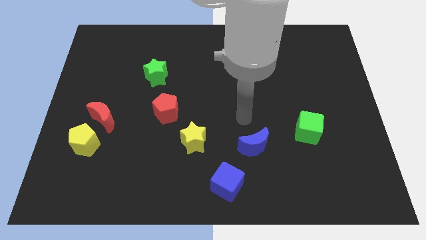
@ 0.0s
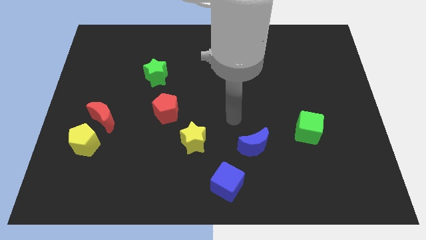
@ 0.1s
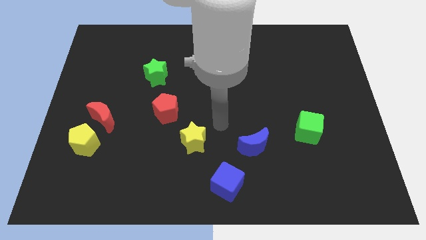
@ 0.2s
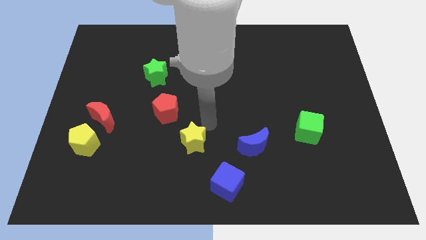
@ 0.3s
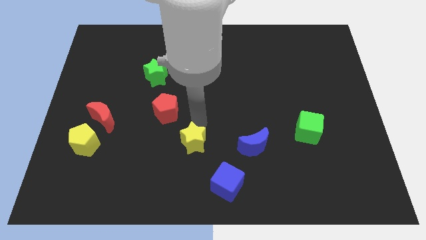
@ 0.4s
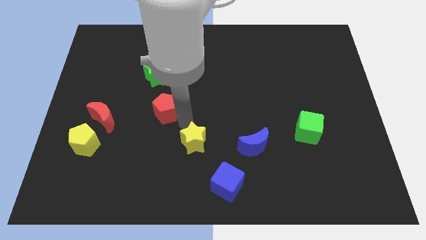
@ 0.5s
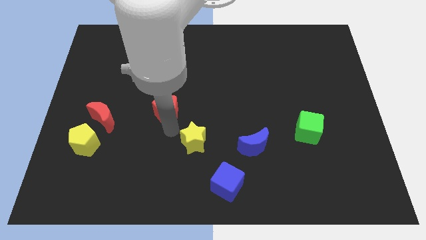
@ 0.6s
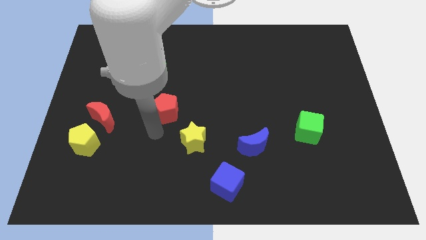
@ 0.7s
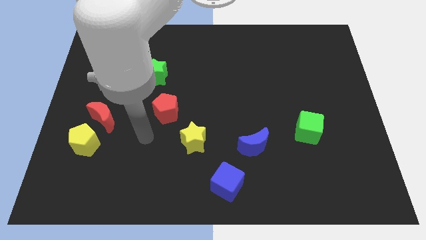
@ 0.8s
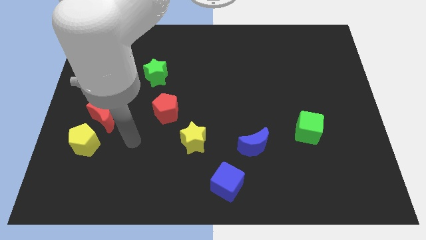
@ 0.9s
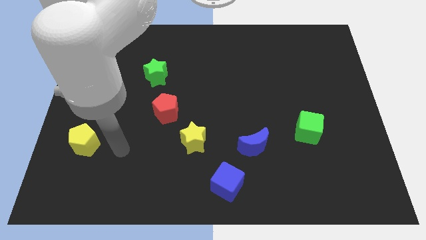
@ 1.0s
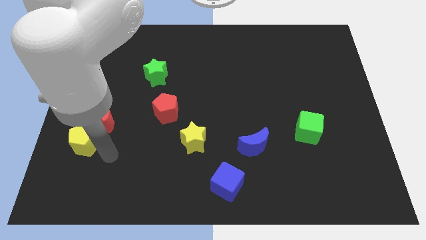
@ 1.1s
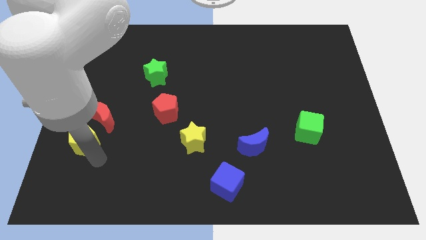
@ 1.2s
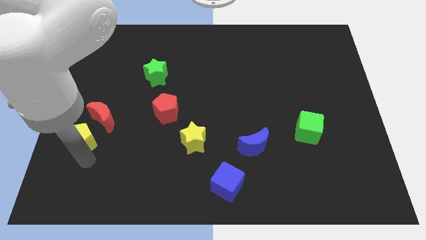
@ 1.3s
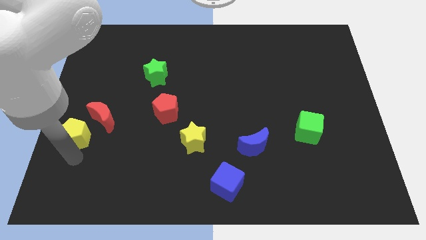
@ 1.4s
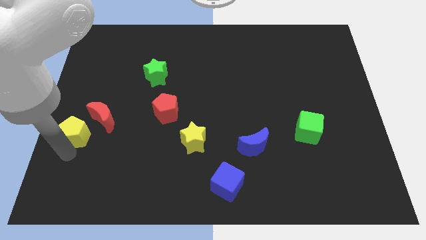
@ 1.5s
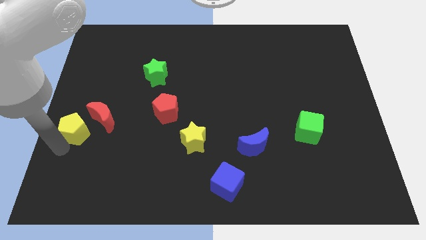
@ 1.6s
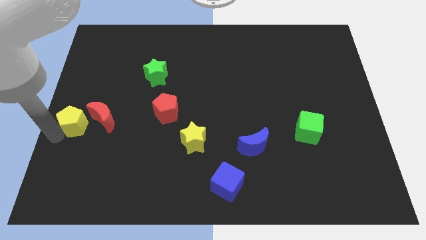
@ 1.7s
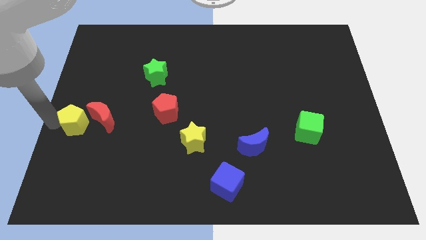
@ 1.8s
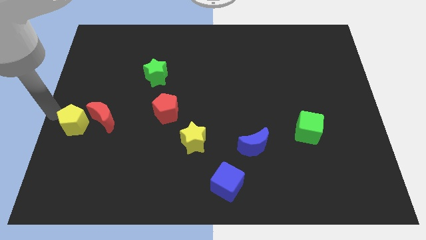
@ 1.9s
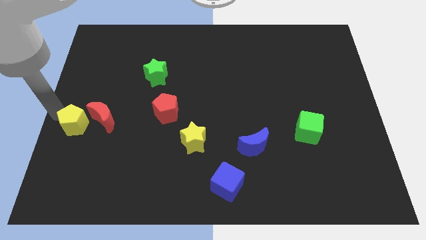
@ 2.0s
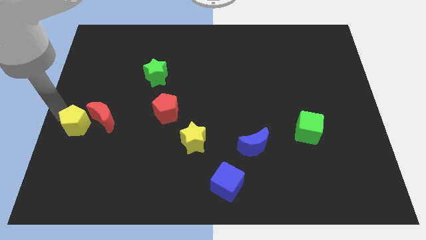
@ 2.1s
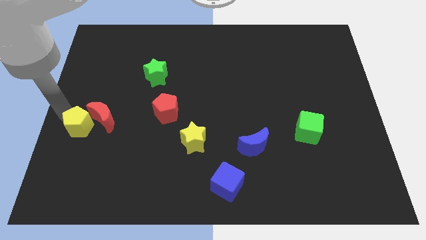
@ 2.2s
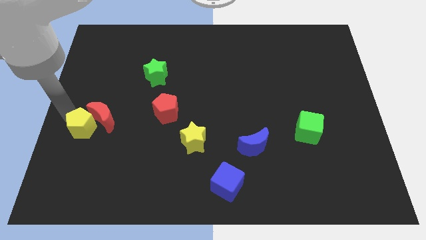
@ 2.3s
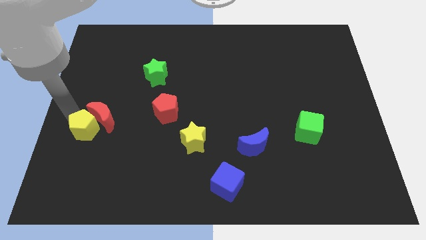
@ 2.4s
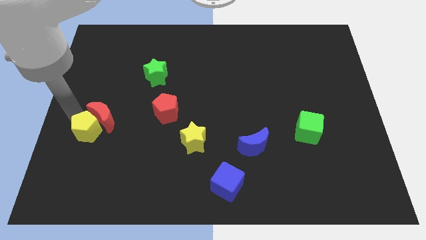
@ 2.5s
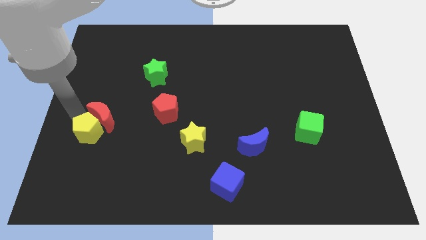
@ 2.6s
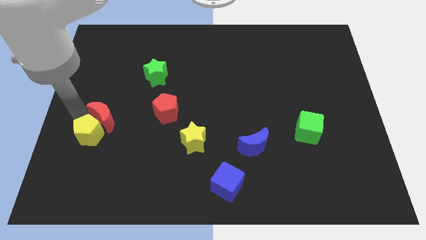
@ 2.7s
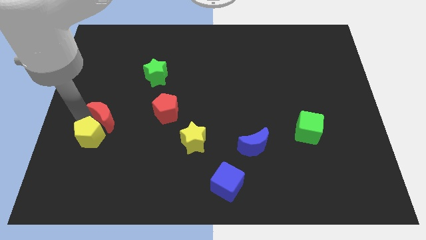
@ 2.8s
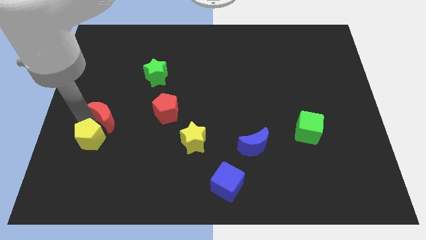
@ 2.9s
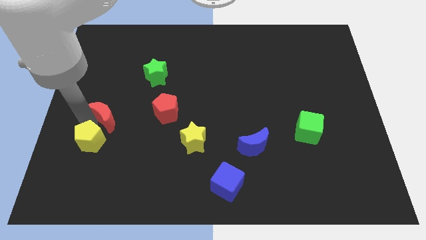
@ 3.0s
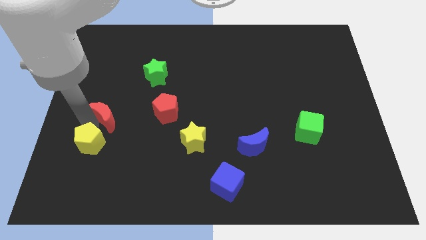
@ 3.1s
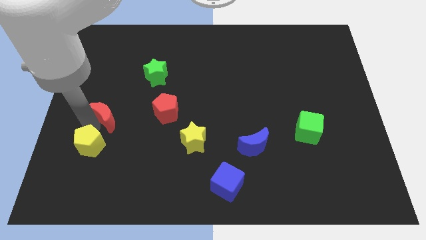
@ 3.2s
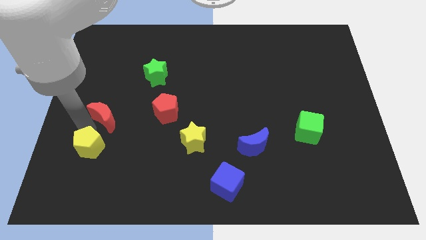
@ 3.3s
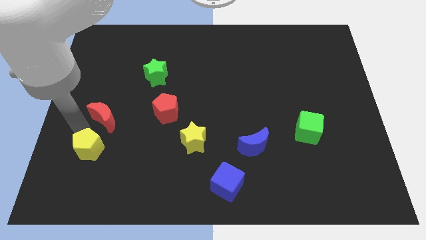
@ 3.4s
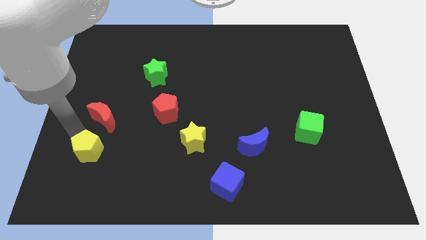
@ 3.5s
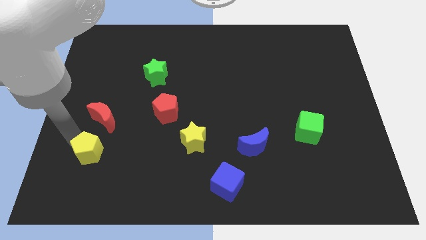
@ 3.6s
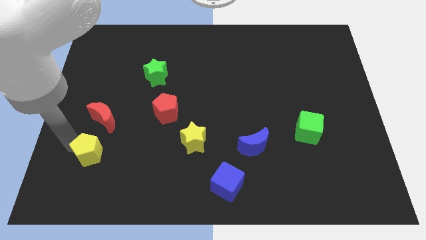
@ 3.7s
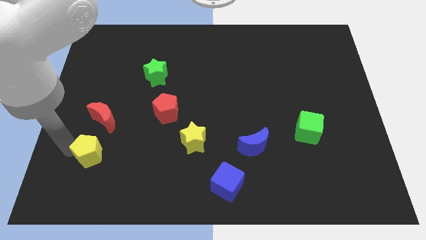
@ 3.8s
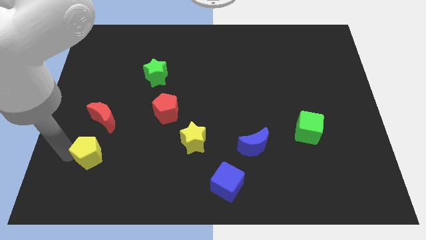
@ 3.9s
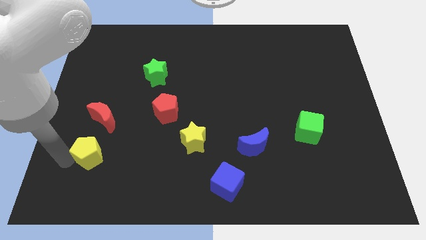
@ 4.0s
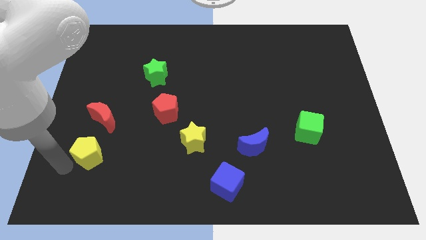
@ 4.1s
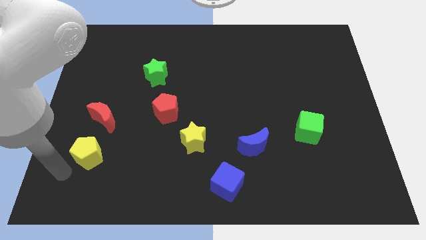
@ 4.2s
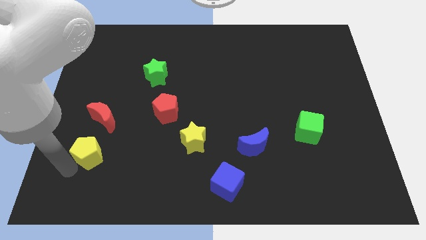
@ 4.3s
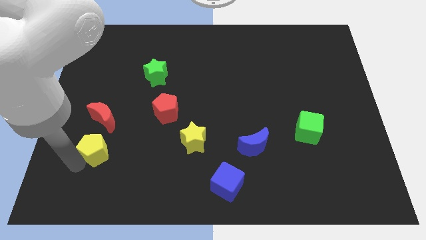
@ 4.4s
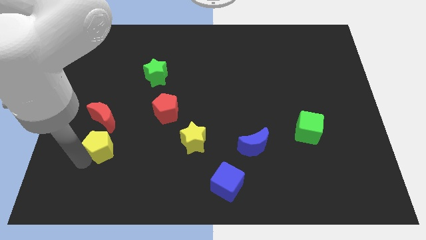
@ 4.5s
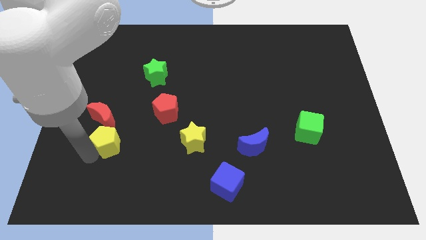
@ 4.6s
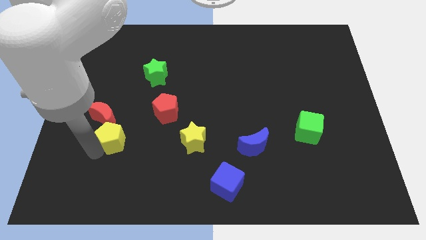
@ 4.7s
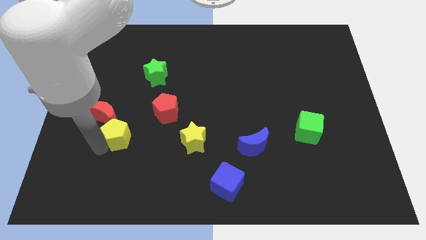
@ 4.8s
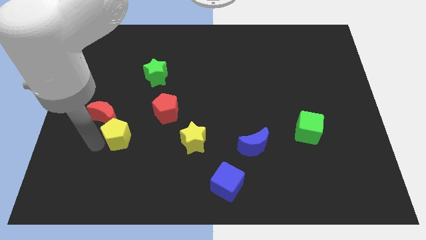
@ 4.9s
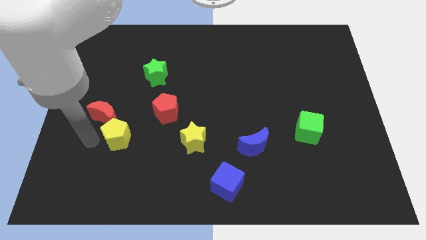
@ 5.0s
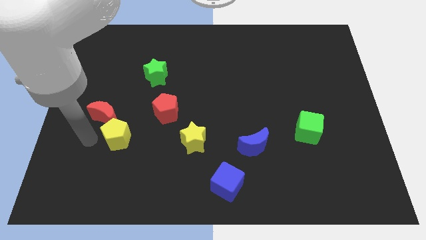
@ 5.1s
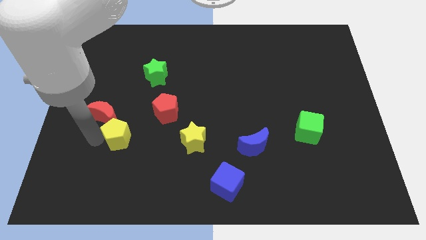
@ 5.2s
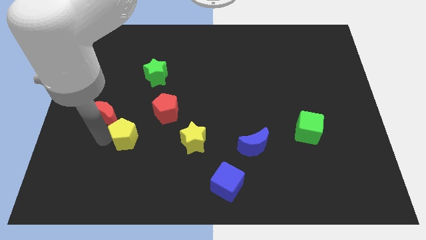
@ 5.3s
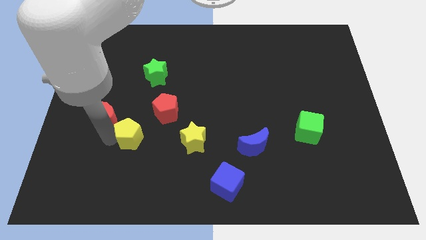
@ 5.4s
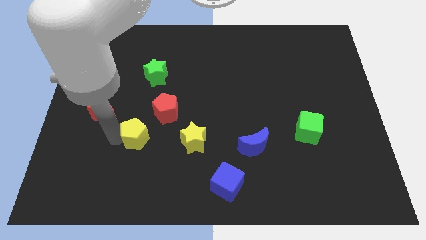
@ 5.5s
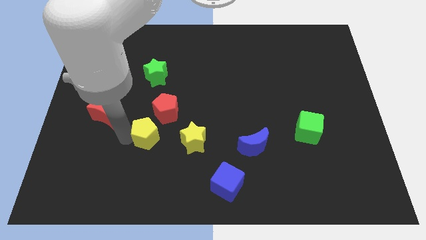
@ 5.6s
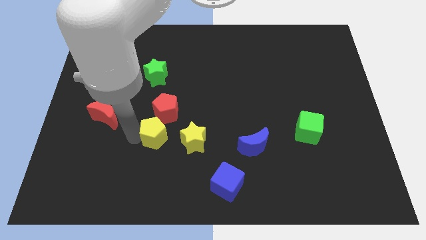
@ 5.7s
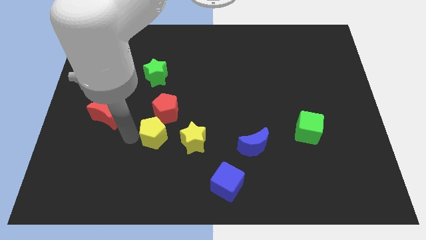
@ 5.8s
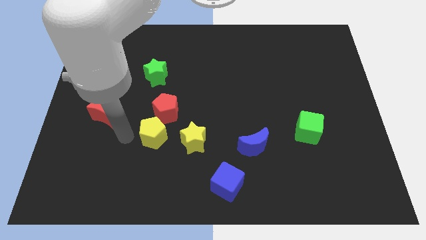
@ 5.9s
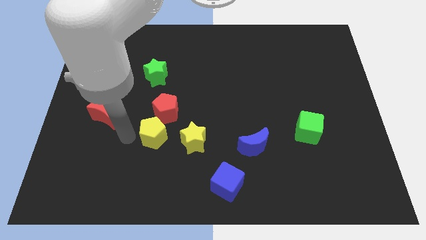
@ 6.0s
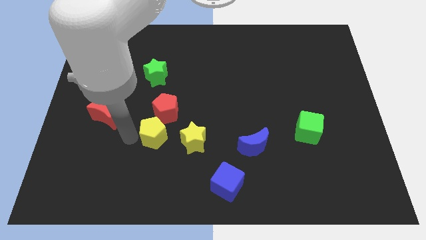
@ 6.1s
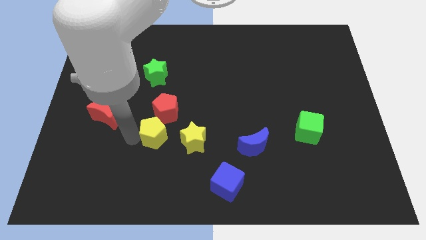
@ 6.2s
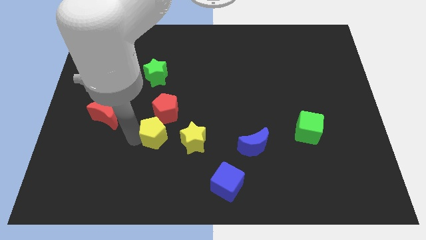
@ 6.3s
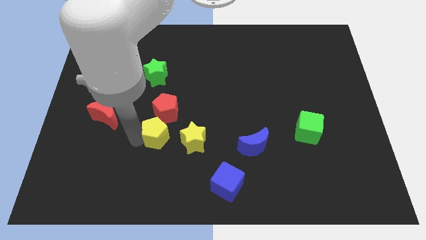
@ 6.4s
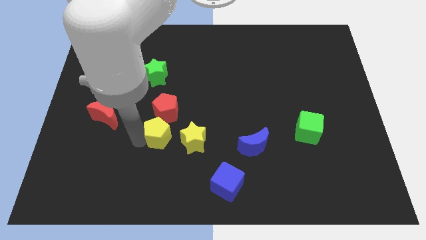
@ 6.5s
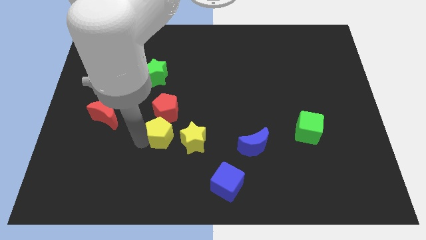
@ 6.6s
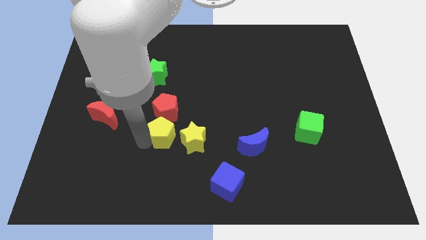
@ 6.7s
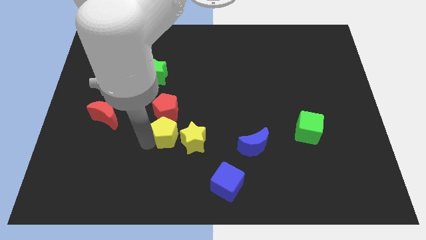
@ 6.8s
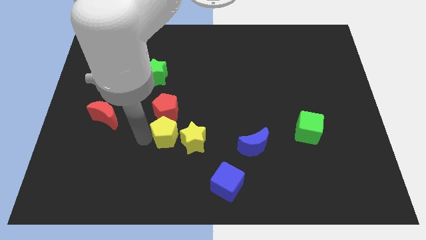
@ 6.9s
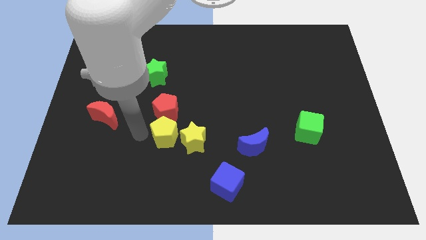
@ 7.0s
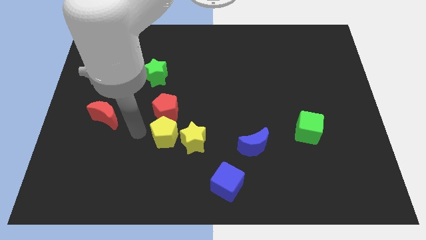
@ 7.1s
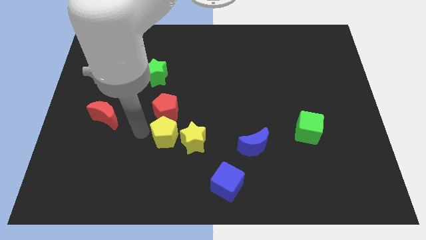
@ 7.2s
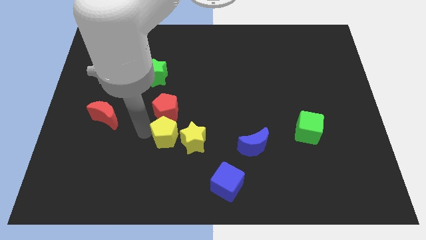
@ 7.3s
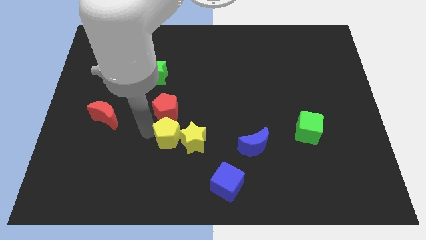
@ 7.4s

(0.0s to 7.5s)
push the yellow pentagon next to the yellow star

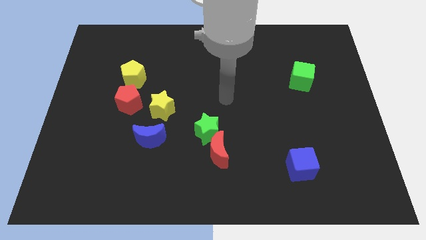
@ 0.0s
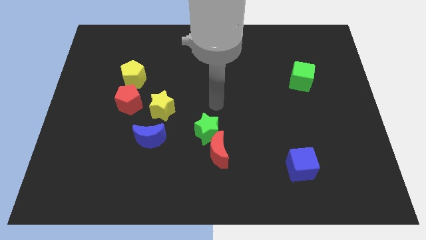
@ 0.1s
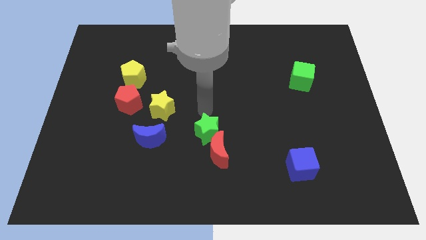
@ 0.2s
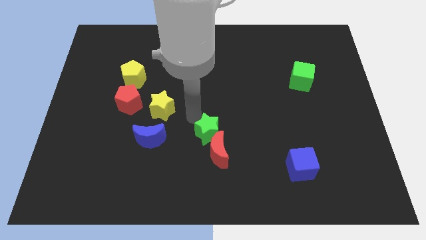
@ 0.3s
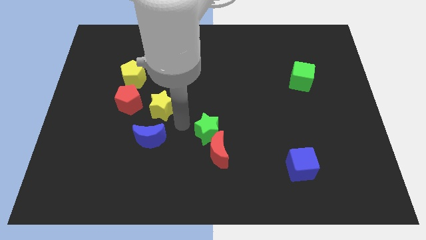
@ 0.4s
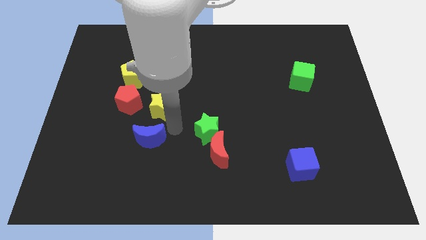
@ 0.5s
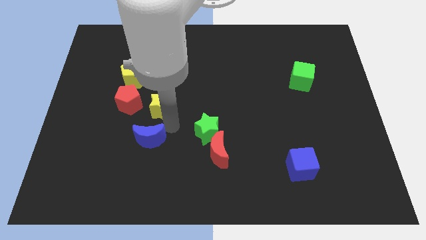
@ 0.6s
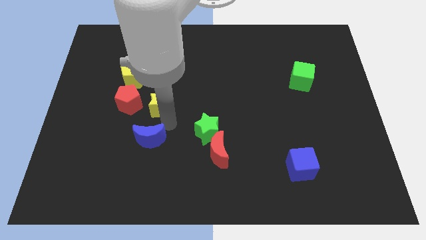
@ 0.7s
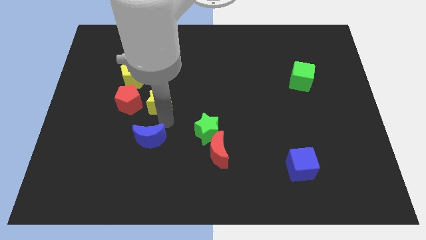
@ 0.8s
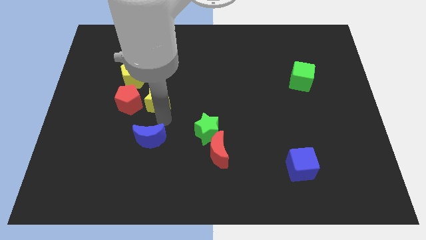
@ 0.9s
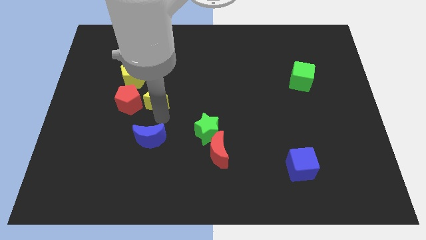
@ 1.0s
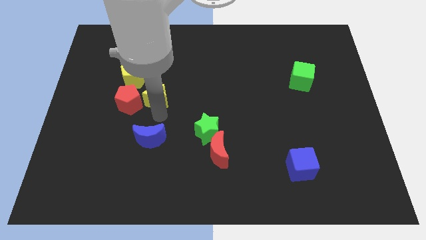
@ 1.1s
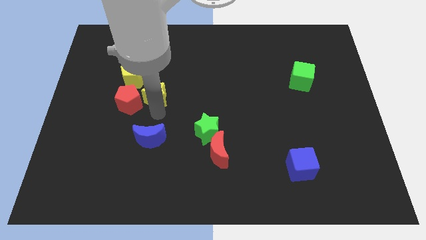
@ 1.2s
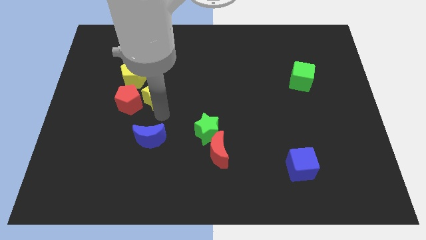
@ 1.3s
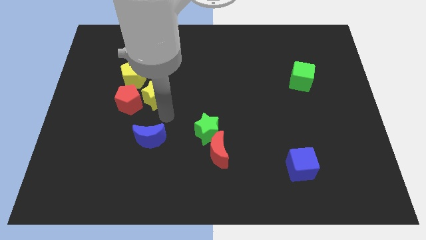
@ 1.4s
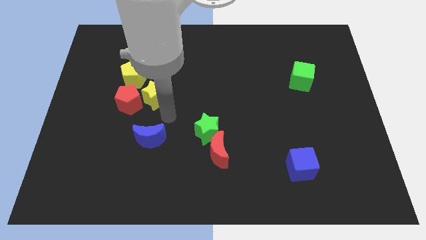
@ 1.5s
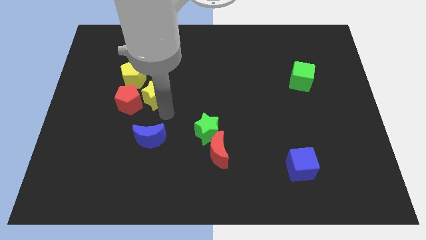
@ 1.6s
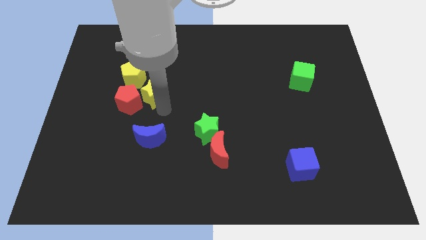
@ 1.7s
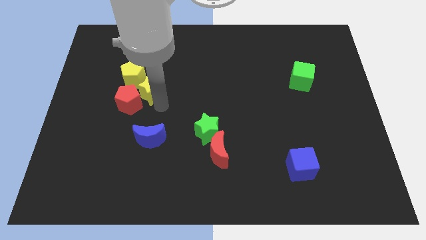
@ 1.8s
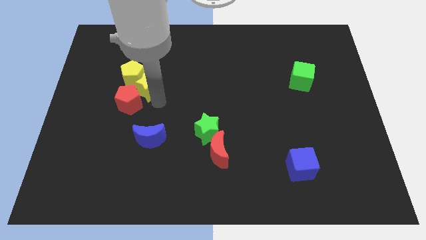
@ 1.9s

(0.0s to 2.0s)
push the yellow star close to the yellow pentagon
